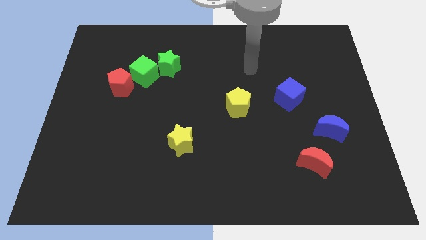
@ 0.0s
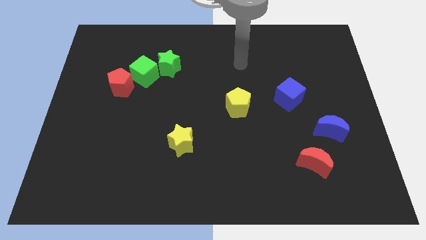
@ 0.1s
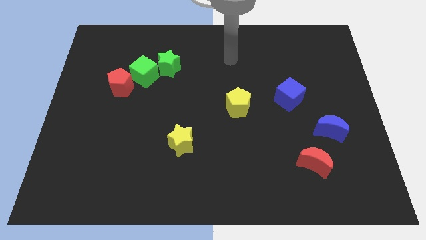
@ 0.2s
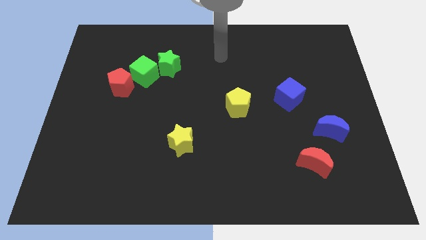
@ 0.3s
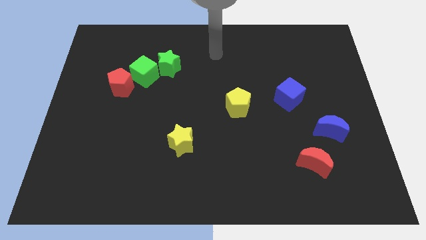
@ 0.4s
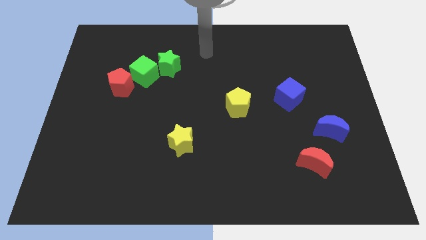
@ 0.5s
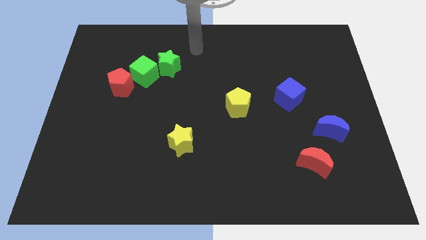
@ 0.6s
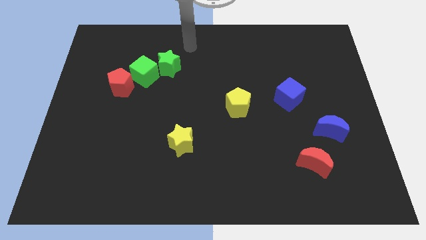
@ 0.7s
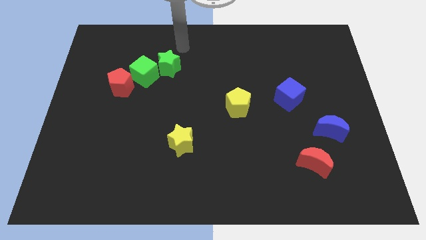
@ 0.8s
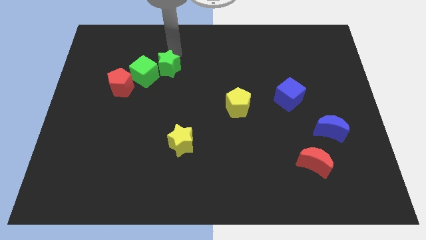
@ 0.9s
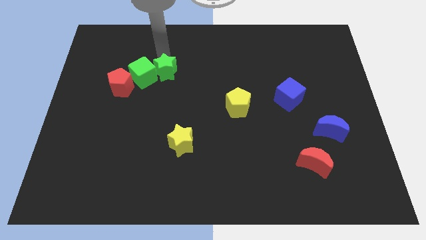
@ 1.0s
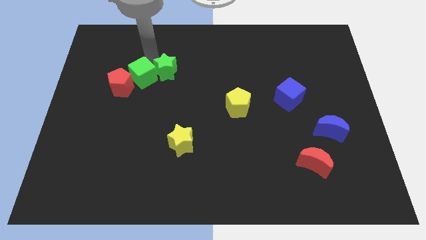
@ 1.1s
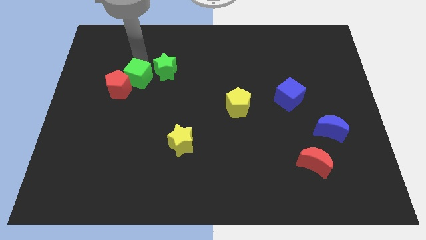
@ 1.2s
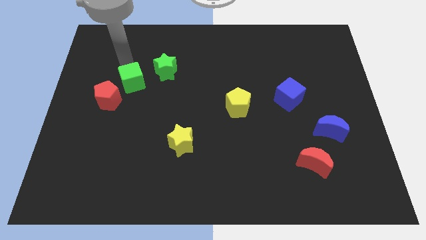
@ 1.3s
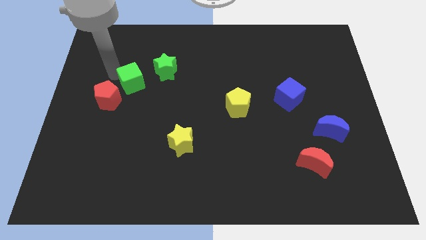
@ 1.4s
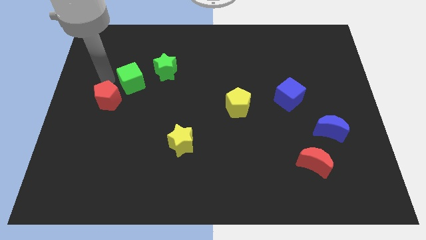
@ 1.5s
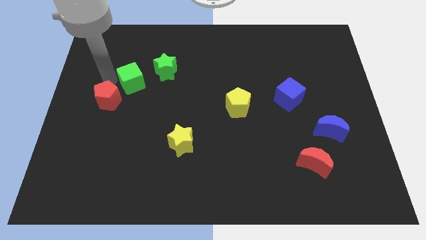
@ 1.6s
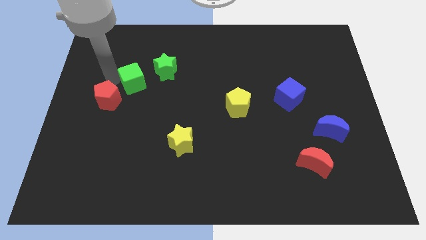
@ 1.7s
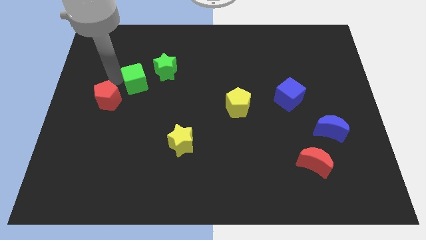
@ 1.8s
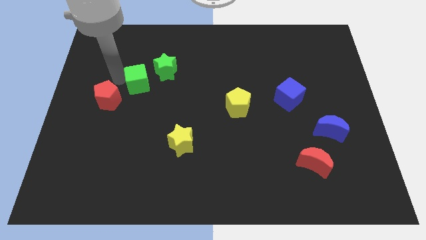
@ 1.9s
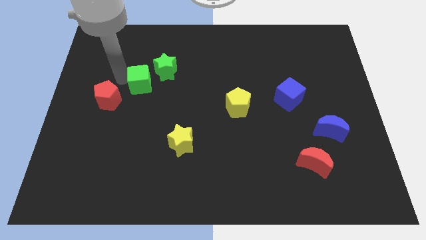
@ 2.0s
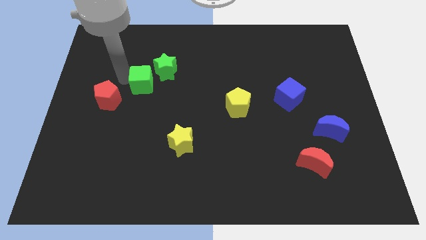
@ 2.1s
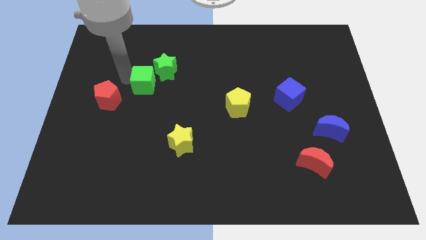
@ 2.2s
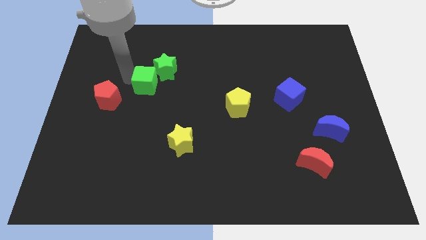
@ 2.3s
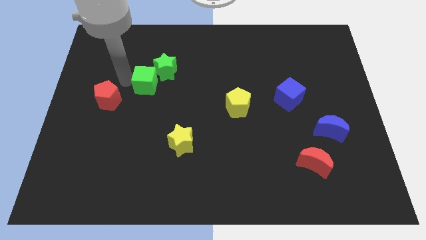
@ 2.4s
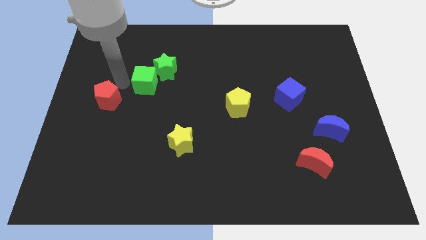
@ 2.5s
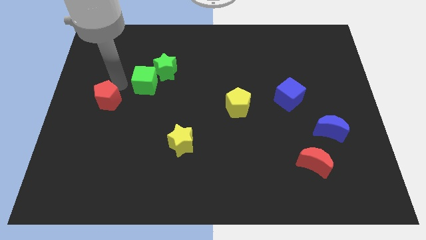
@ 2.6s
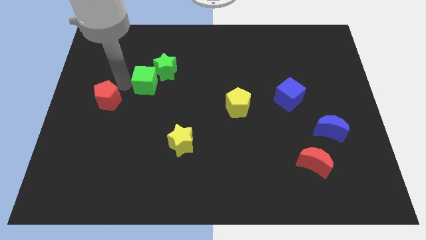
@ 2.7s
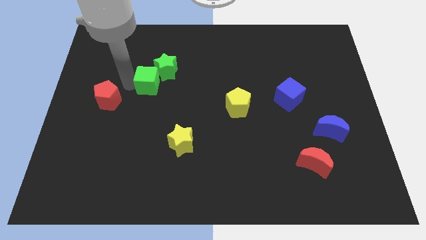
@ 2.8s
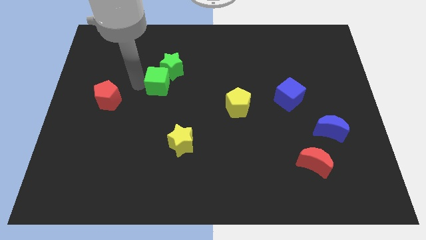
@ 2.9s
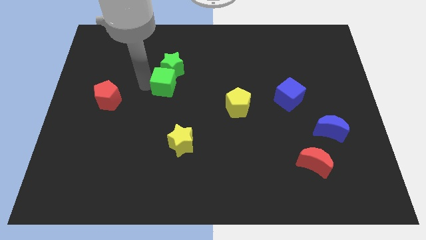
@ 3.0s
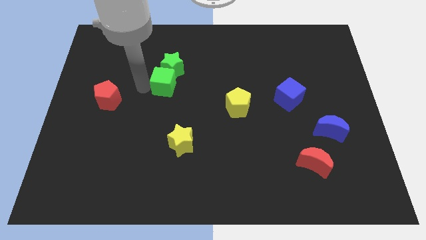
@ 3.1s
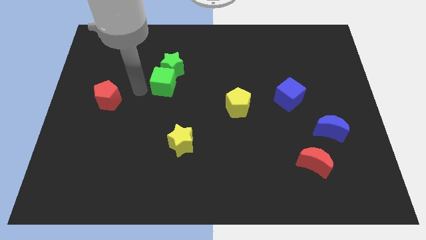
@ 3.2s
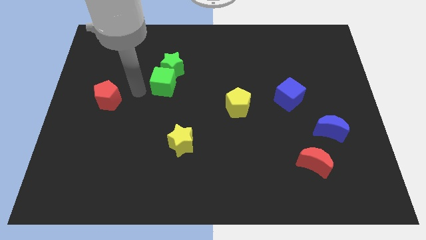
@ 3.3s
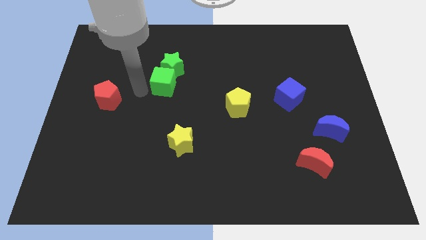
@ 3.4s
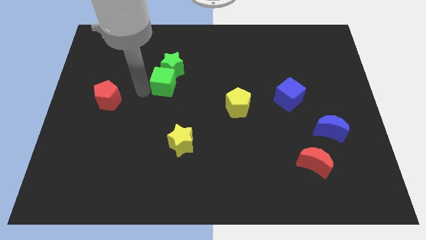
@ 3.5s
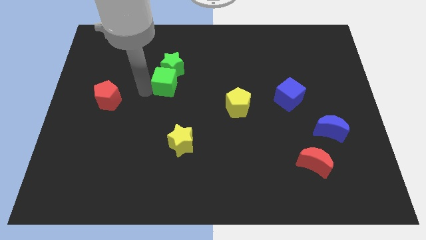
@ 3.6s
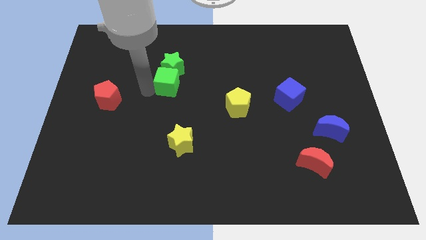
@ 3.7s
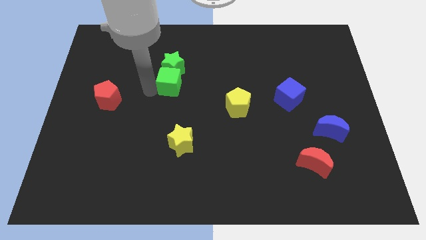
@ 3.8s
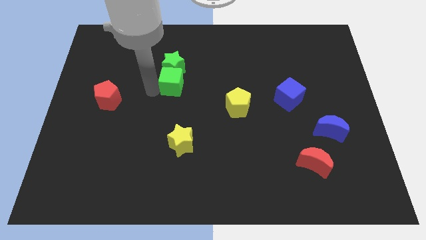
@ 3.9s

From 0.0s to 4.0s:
push the green cube right slightly

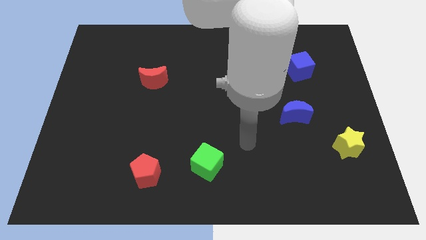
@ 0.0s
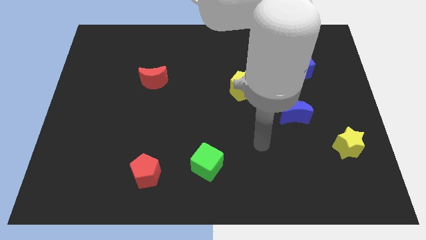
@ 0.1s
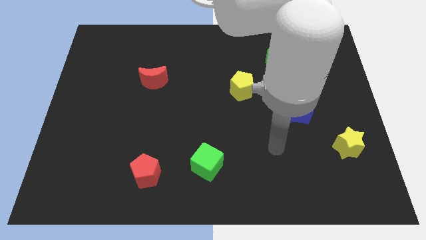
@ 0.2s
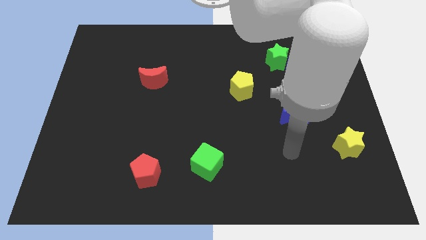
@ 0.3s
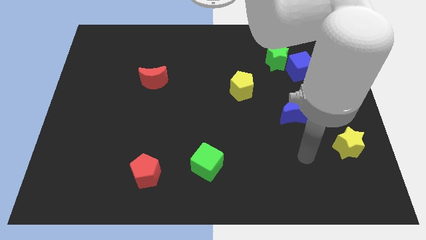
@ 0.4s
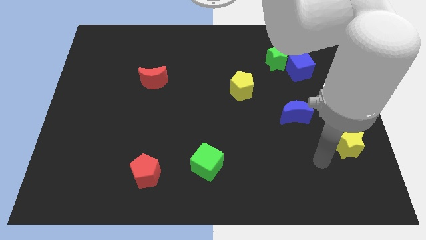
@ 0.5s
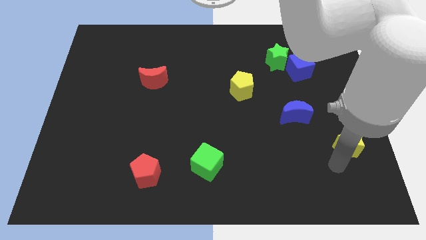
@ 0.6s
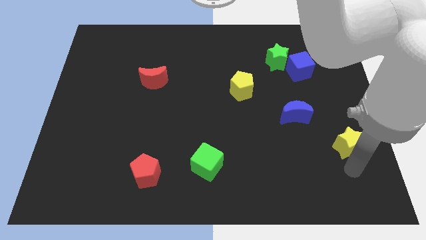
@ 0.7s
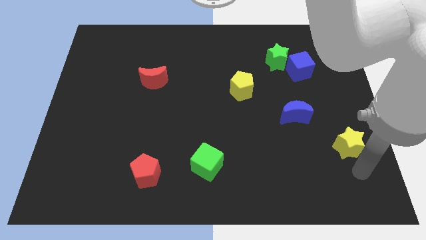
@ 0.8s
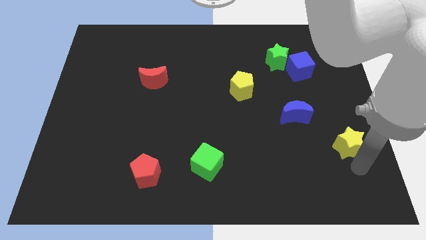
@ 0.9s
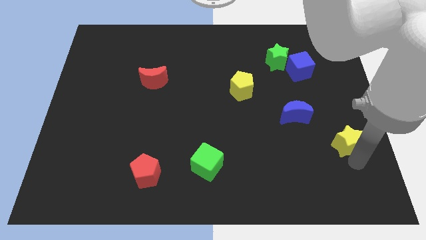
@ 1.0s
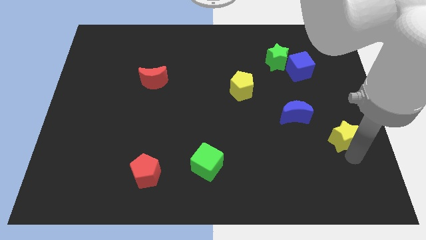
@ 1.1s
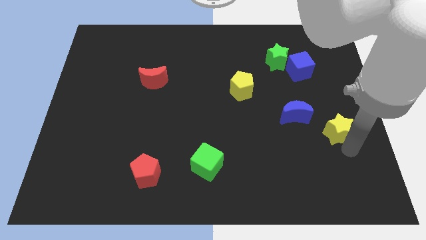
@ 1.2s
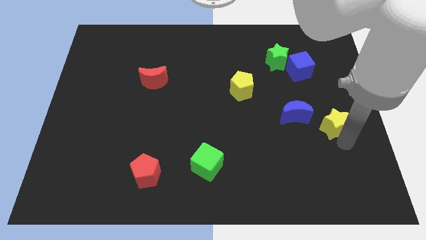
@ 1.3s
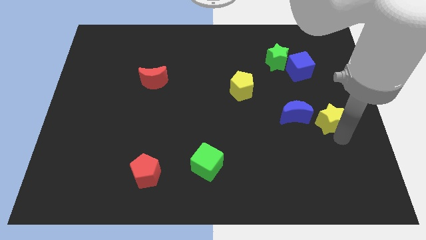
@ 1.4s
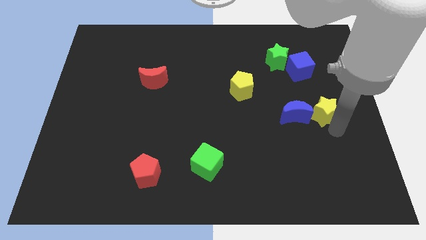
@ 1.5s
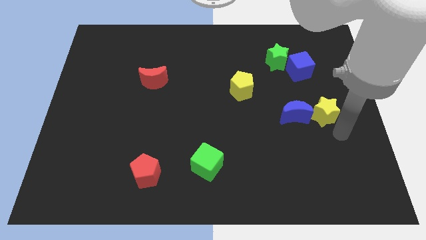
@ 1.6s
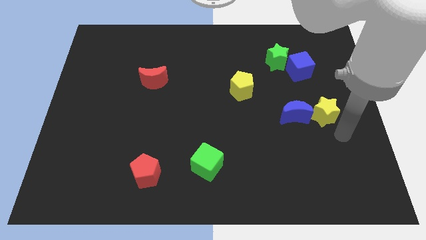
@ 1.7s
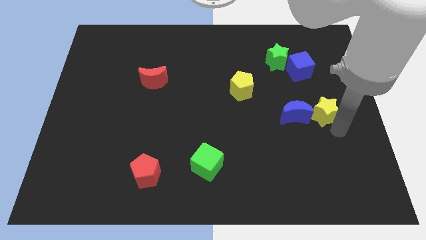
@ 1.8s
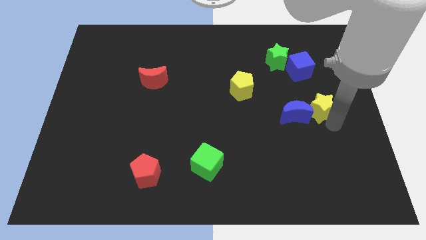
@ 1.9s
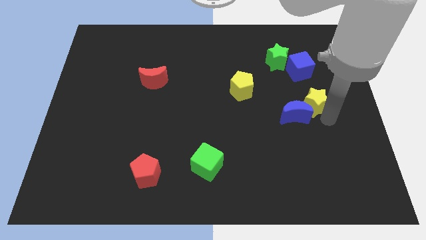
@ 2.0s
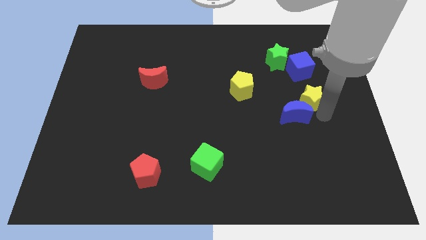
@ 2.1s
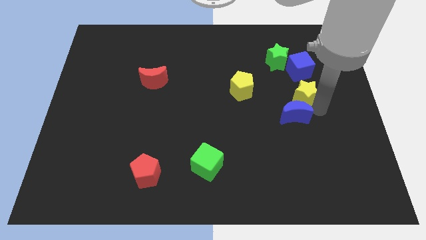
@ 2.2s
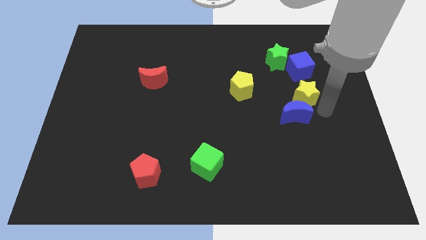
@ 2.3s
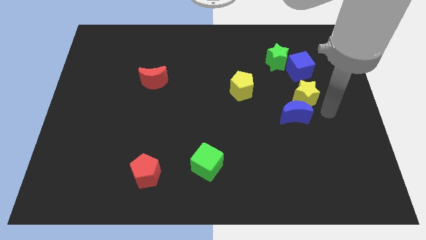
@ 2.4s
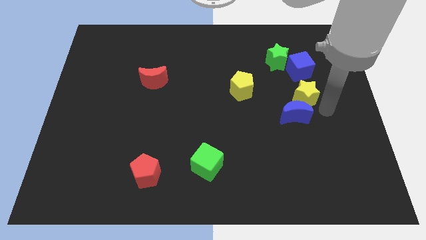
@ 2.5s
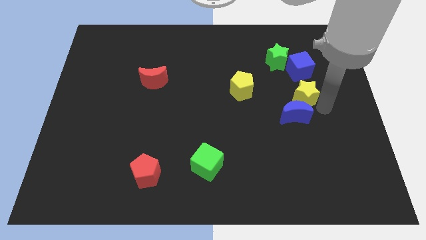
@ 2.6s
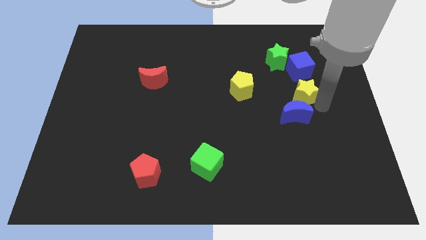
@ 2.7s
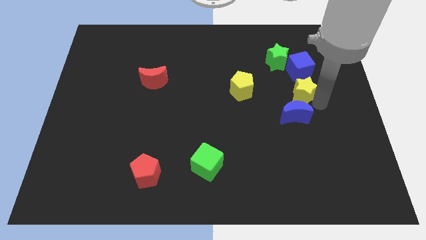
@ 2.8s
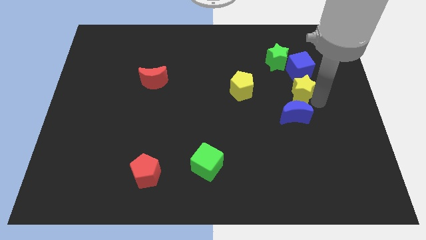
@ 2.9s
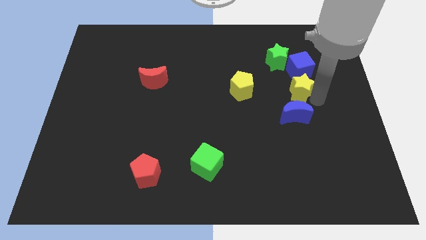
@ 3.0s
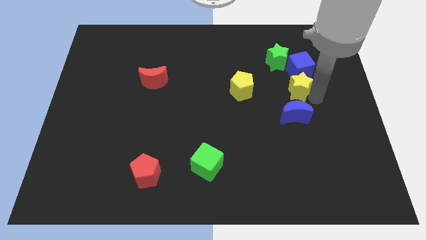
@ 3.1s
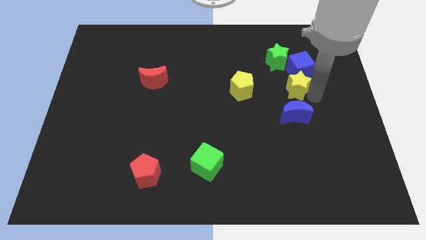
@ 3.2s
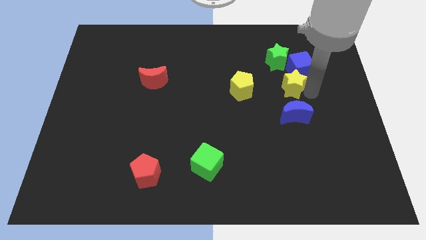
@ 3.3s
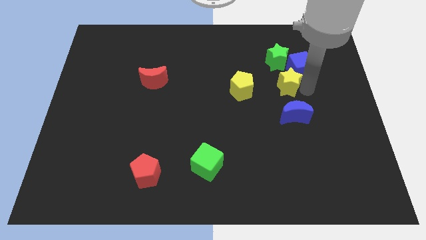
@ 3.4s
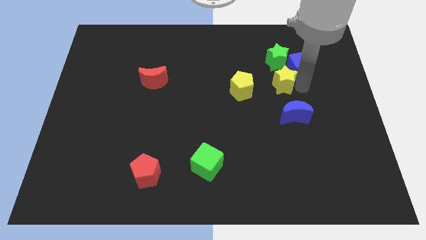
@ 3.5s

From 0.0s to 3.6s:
push the yellow star diagonally upwards and left

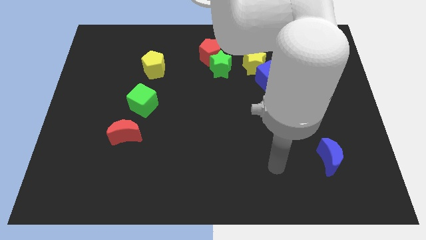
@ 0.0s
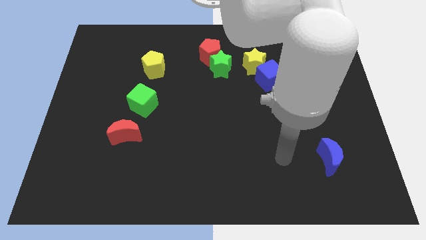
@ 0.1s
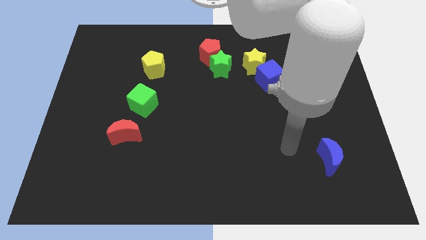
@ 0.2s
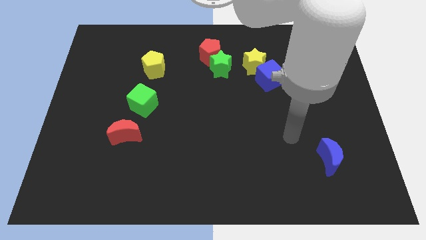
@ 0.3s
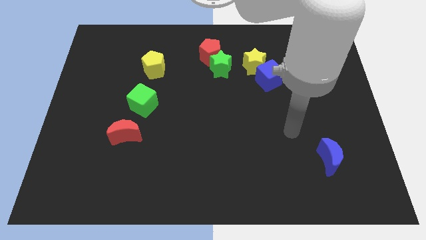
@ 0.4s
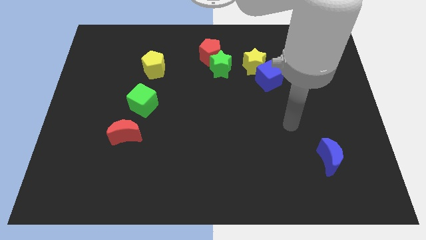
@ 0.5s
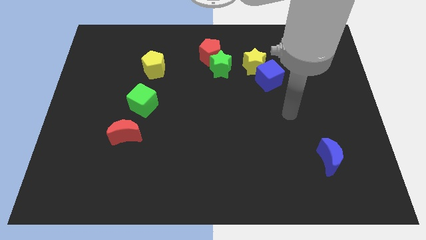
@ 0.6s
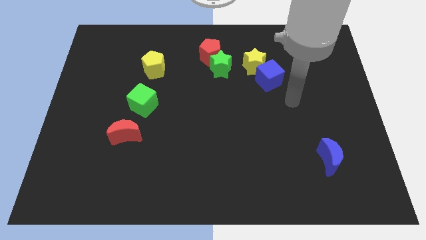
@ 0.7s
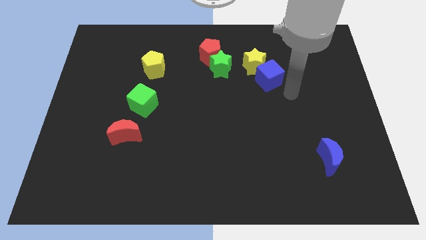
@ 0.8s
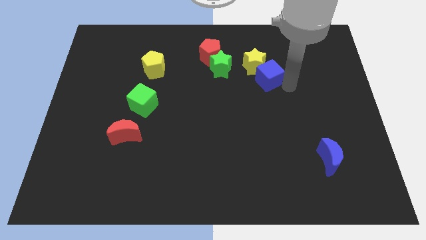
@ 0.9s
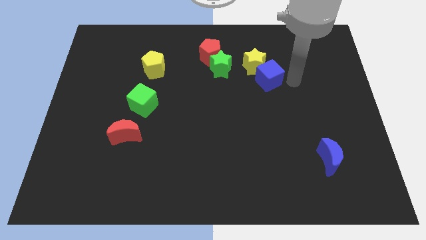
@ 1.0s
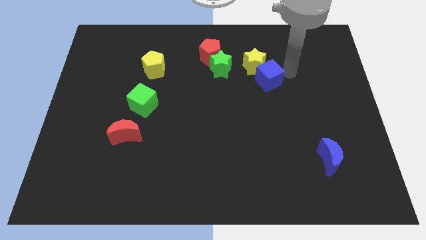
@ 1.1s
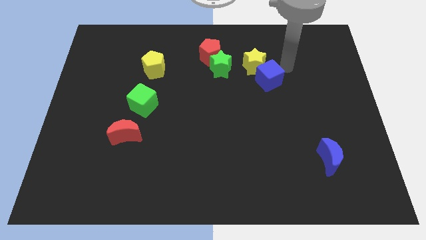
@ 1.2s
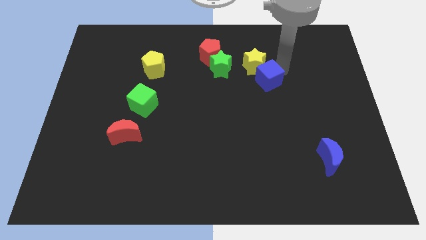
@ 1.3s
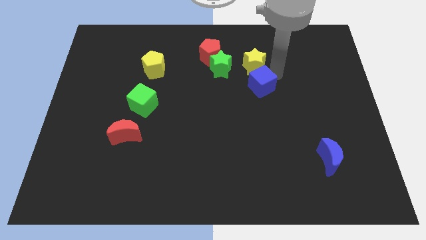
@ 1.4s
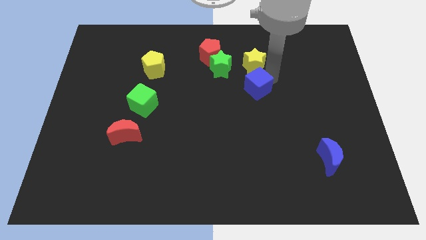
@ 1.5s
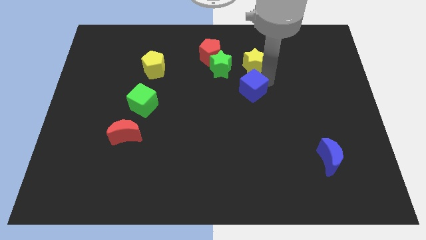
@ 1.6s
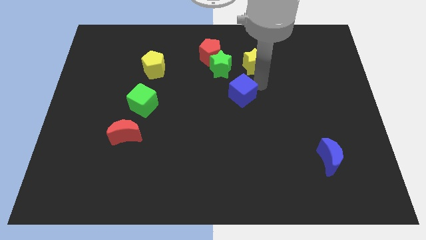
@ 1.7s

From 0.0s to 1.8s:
push the blue cube downwards and to the left a bit
